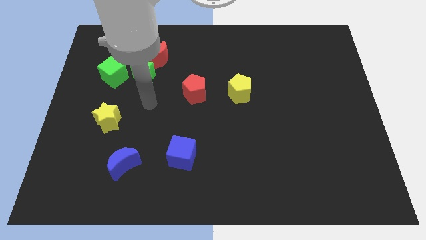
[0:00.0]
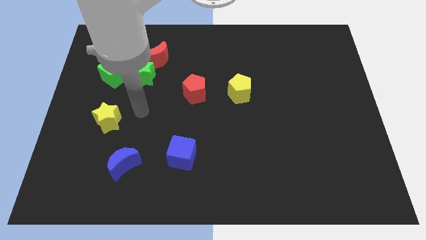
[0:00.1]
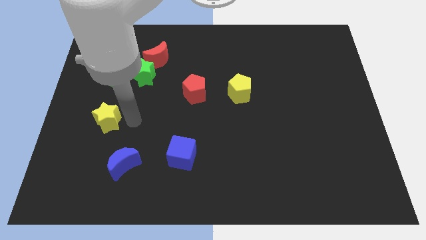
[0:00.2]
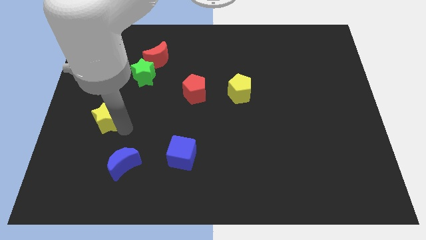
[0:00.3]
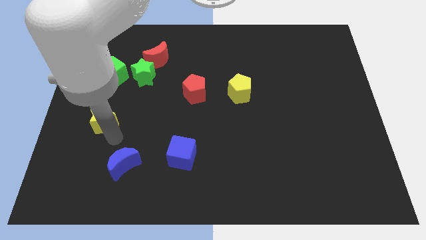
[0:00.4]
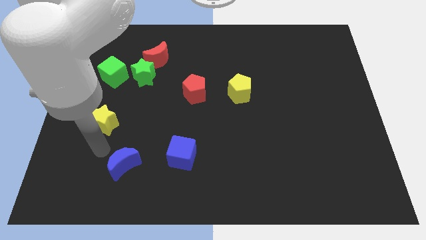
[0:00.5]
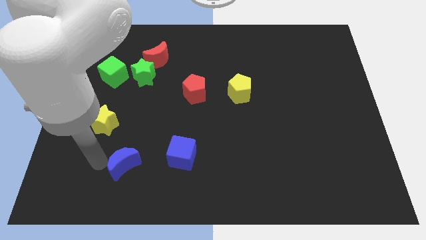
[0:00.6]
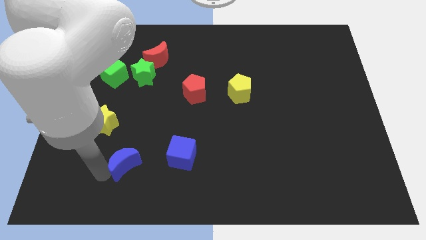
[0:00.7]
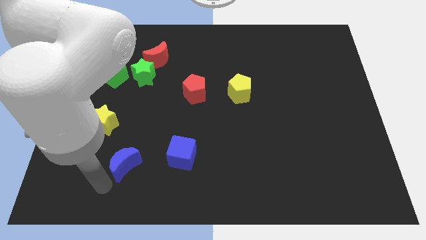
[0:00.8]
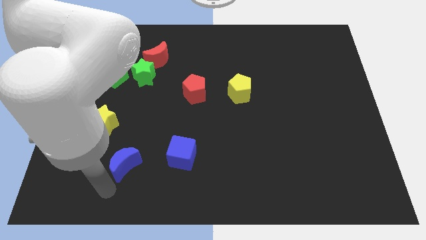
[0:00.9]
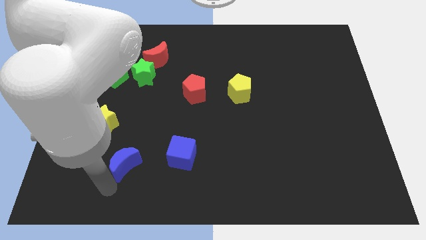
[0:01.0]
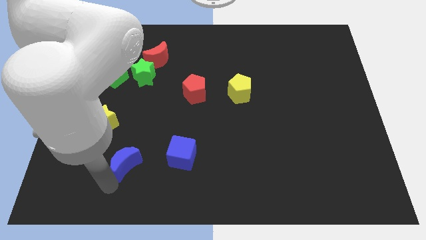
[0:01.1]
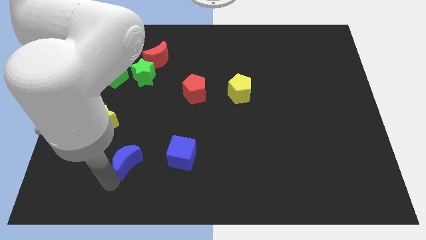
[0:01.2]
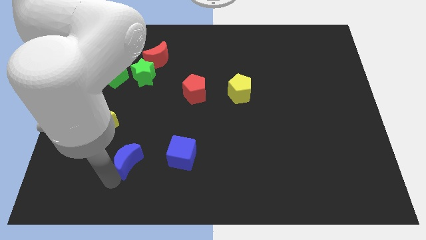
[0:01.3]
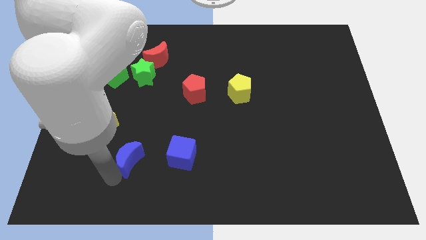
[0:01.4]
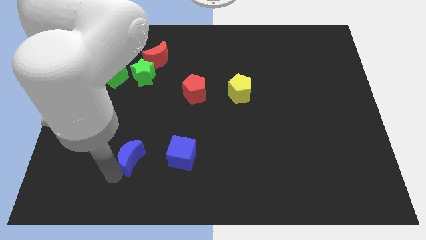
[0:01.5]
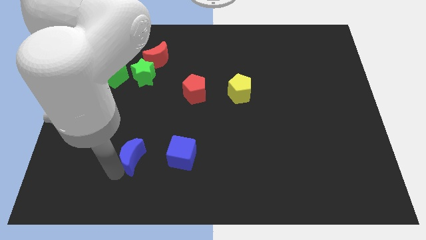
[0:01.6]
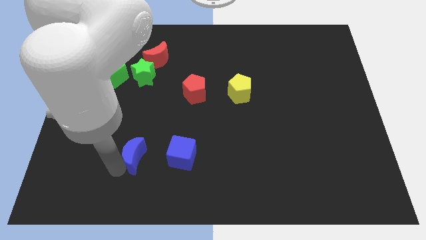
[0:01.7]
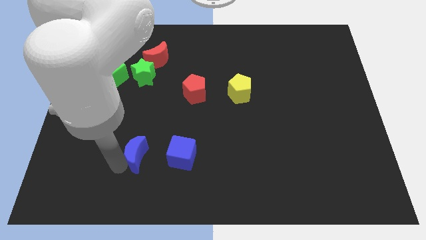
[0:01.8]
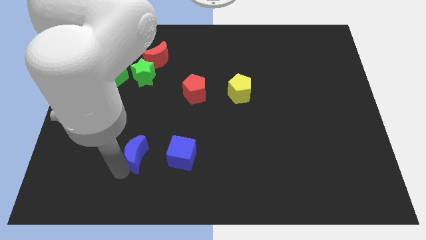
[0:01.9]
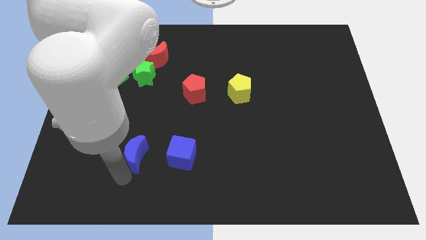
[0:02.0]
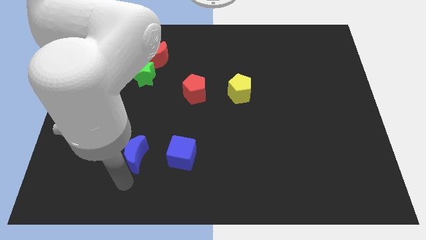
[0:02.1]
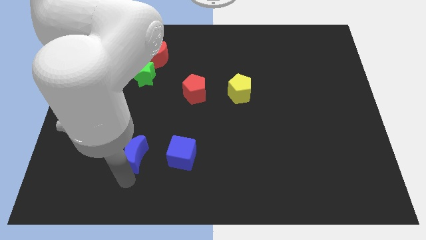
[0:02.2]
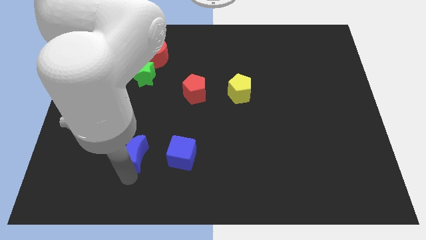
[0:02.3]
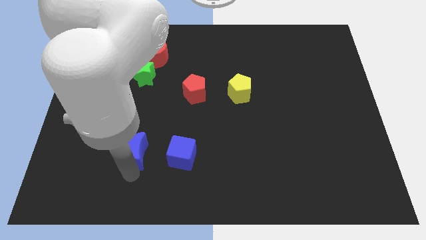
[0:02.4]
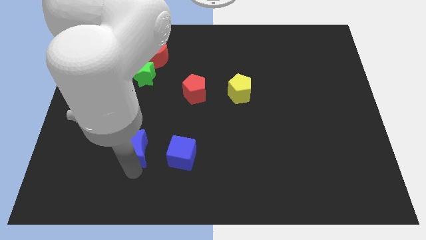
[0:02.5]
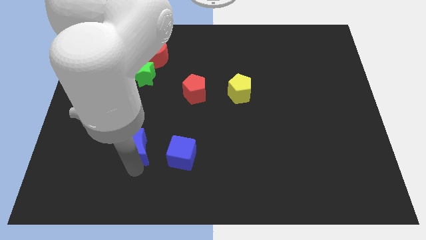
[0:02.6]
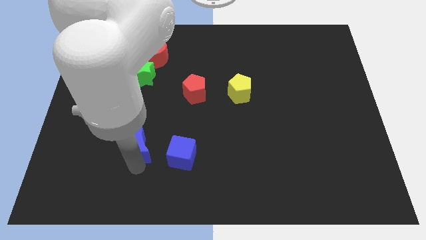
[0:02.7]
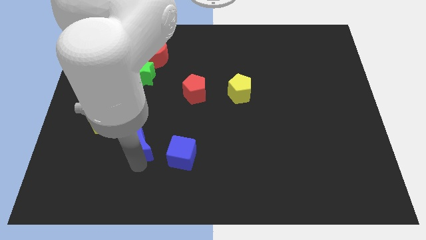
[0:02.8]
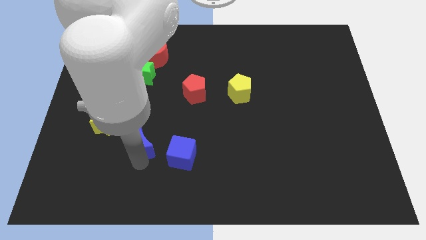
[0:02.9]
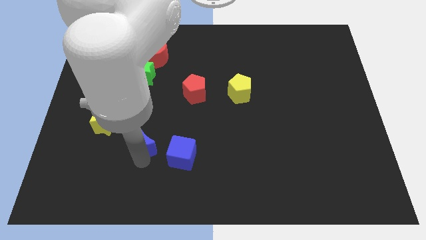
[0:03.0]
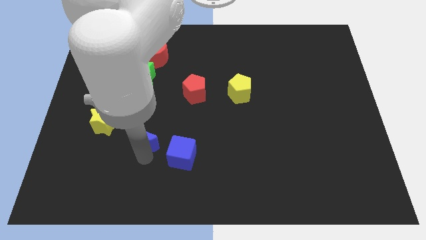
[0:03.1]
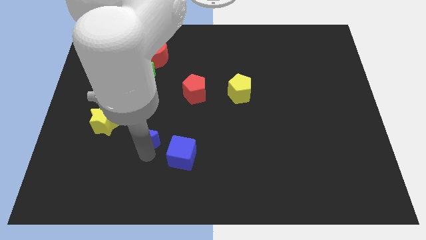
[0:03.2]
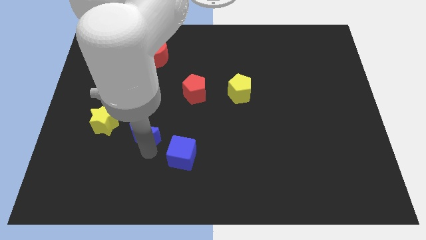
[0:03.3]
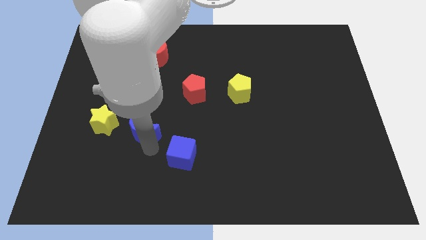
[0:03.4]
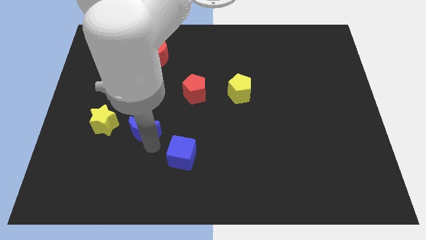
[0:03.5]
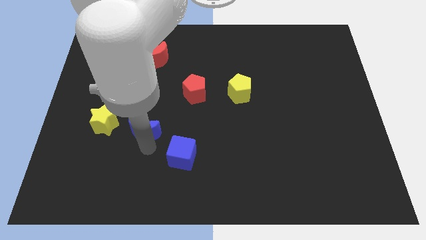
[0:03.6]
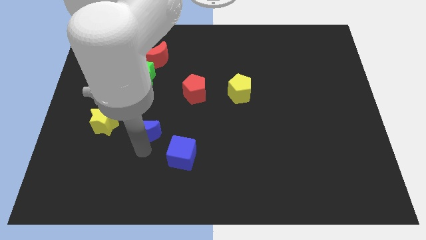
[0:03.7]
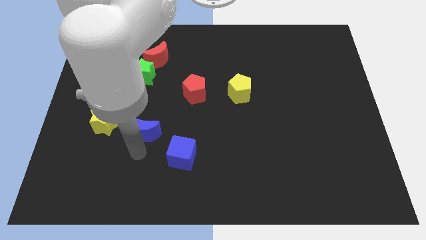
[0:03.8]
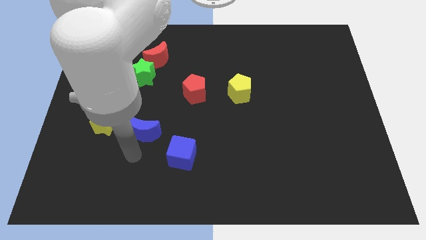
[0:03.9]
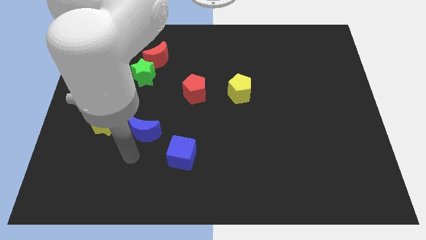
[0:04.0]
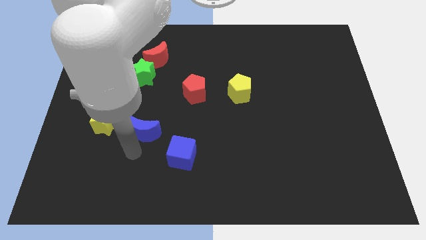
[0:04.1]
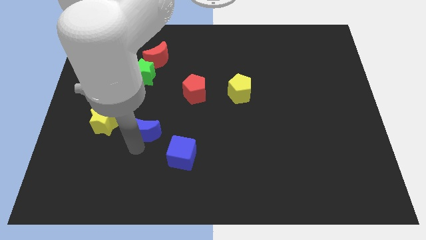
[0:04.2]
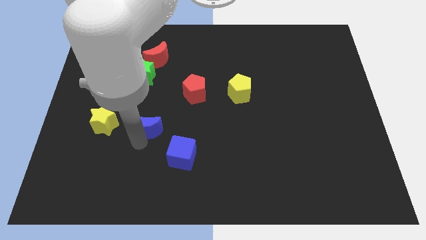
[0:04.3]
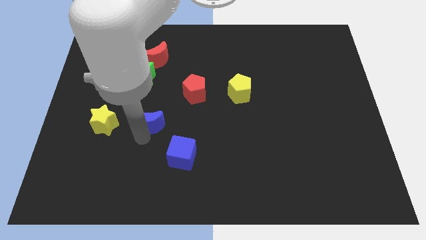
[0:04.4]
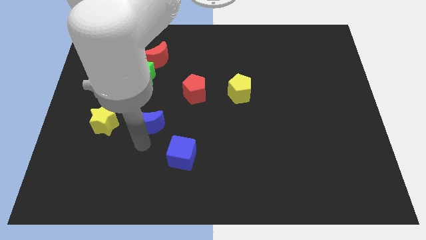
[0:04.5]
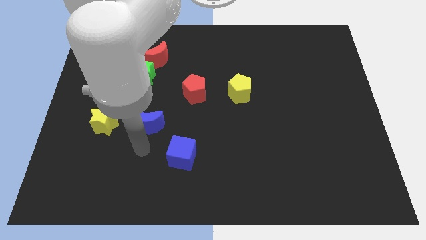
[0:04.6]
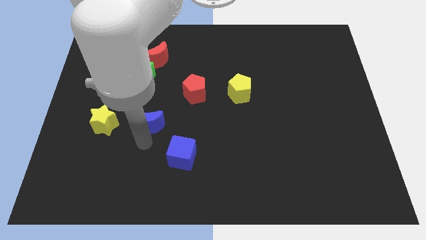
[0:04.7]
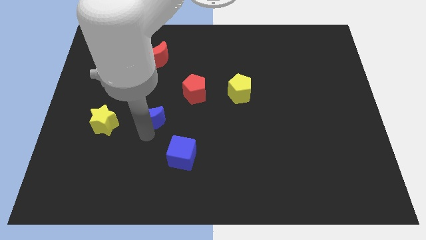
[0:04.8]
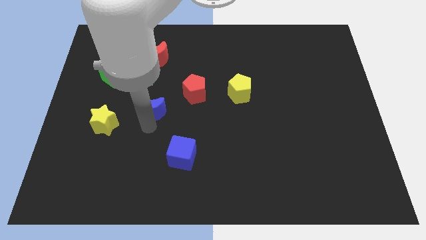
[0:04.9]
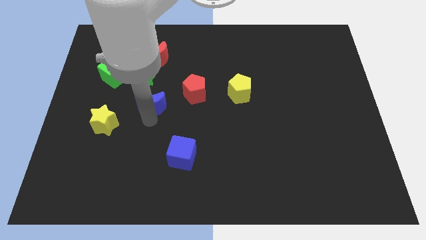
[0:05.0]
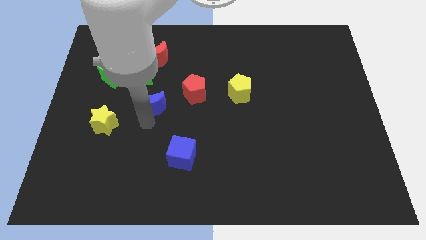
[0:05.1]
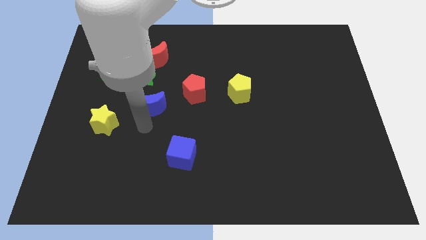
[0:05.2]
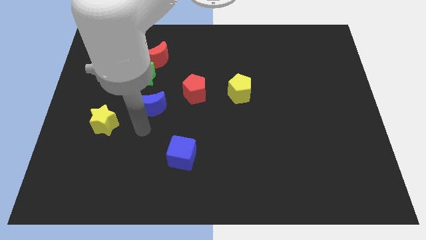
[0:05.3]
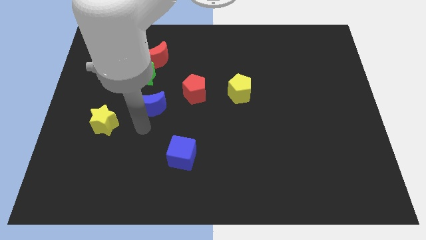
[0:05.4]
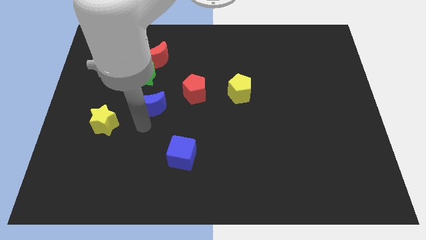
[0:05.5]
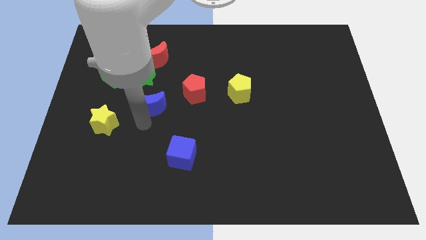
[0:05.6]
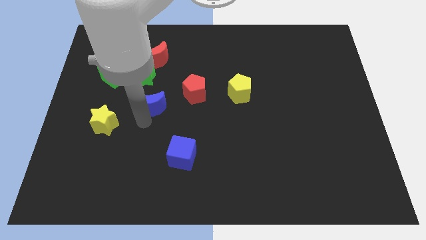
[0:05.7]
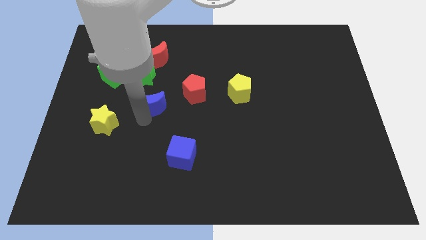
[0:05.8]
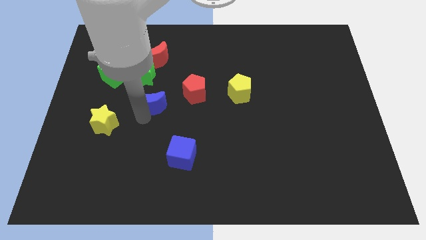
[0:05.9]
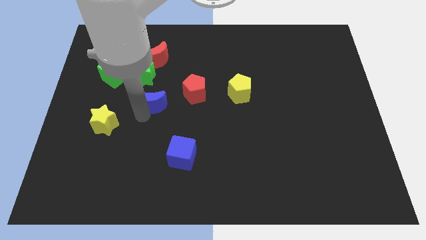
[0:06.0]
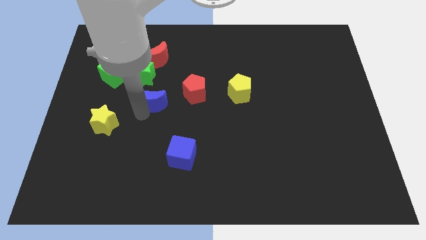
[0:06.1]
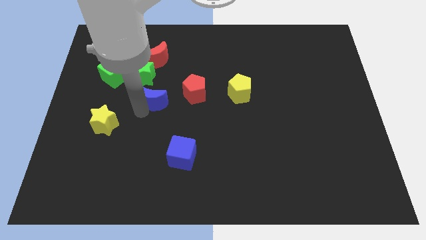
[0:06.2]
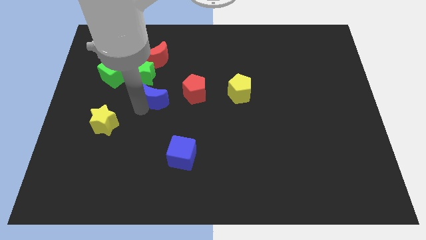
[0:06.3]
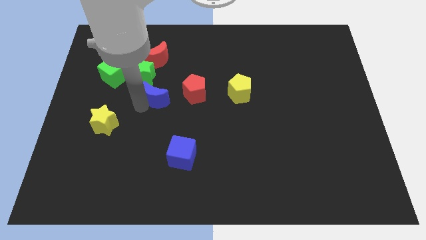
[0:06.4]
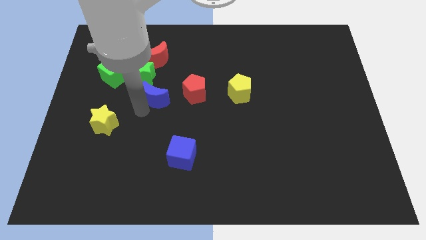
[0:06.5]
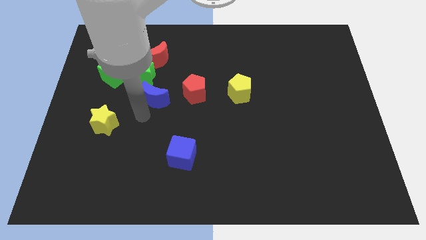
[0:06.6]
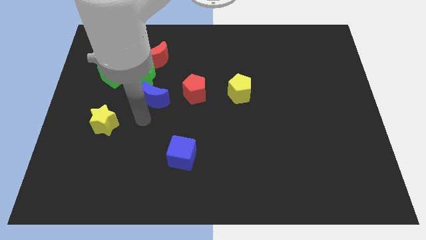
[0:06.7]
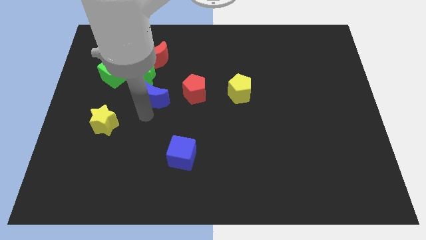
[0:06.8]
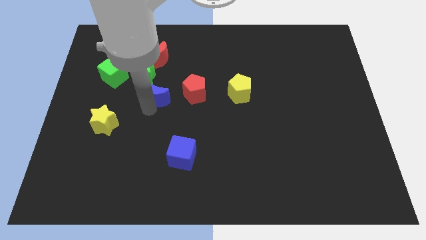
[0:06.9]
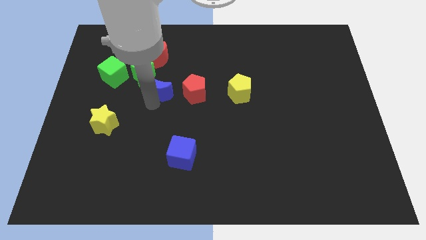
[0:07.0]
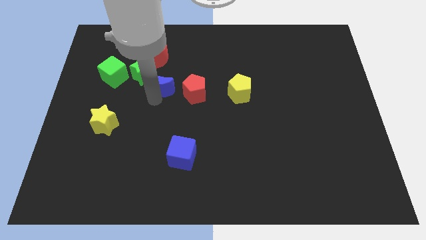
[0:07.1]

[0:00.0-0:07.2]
move the blue moon upwards

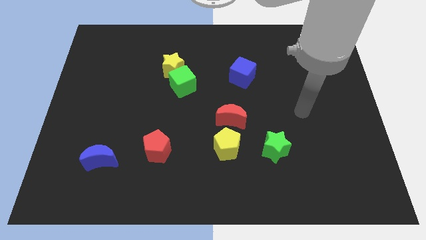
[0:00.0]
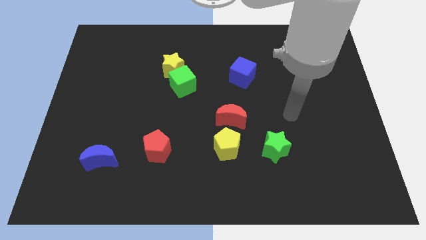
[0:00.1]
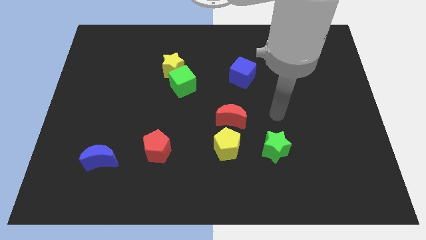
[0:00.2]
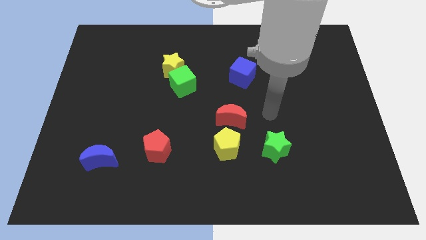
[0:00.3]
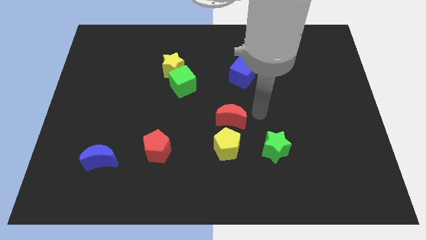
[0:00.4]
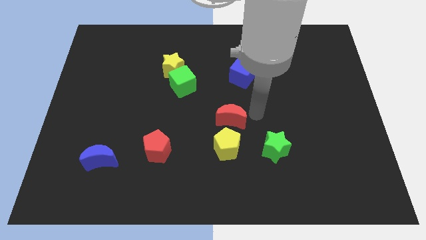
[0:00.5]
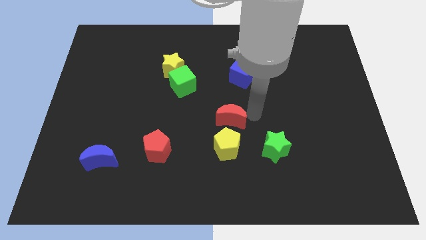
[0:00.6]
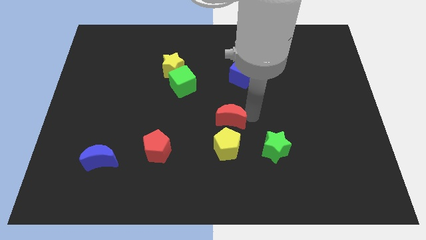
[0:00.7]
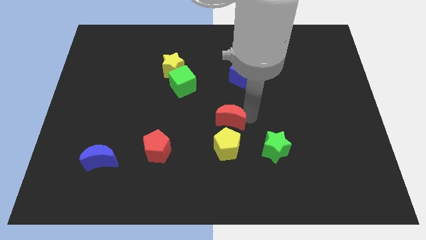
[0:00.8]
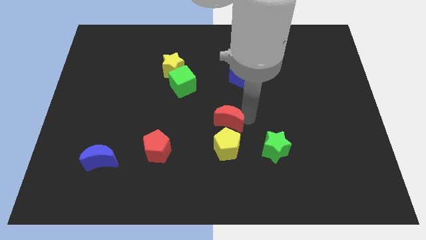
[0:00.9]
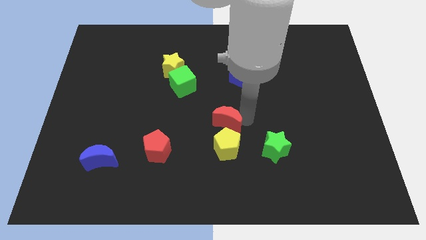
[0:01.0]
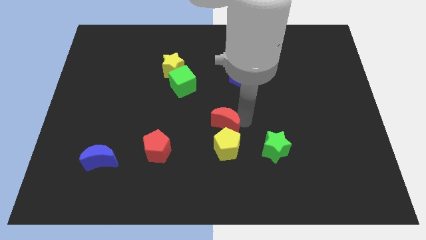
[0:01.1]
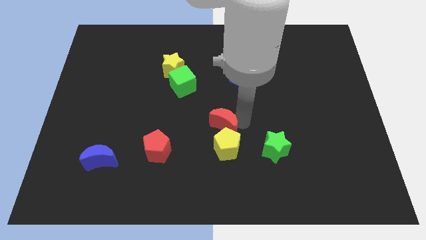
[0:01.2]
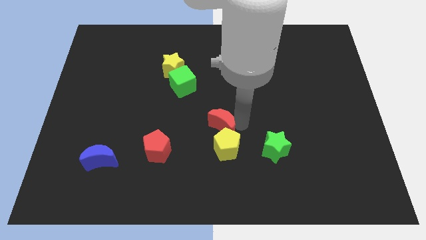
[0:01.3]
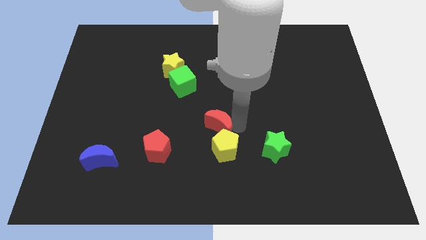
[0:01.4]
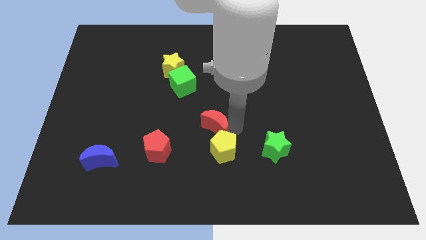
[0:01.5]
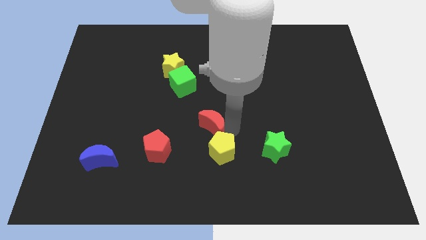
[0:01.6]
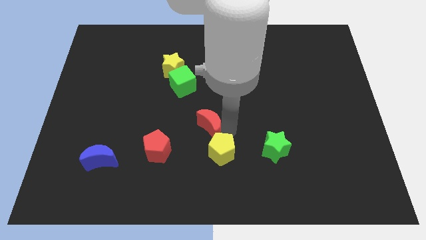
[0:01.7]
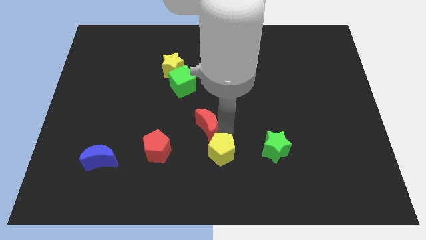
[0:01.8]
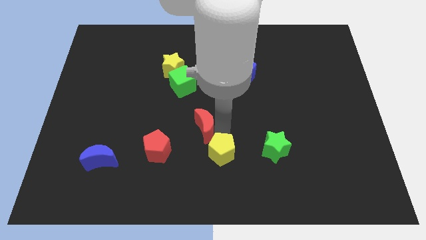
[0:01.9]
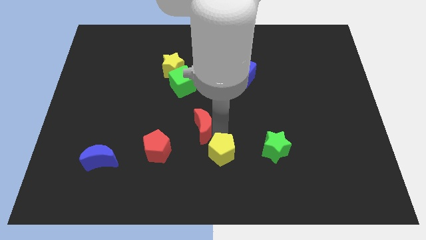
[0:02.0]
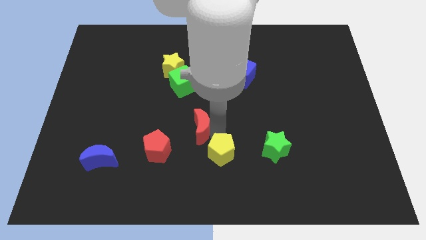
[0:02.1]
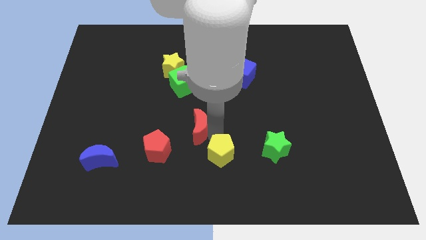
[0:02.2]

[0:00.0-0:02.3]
slightly push the red moon to the left
